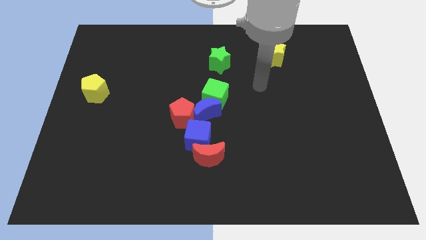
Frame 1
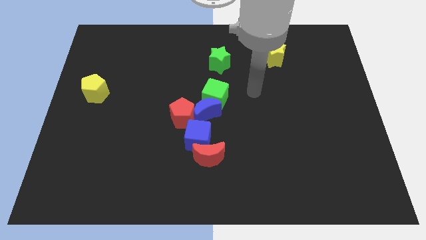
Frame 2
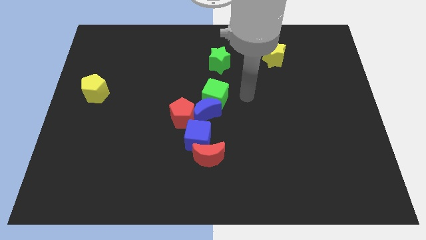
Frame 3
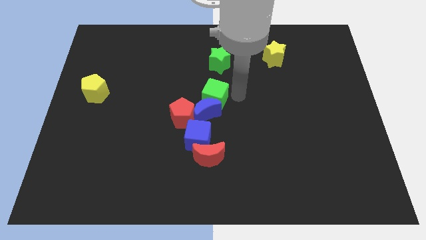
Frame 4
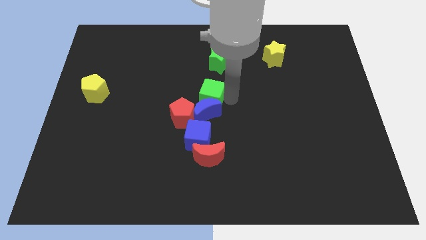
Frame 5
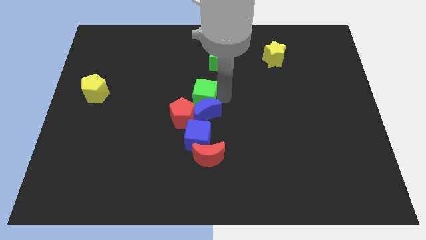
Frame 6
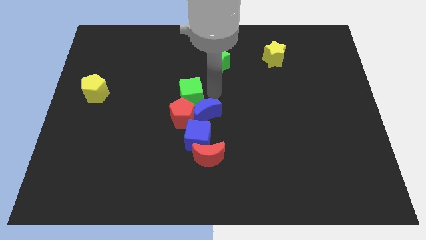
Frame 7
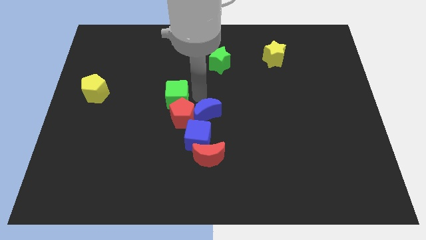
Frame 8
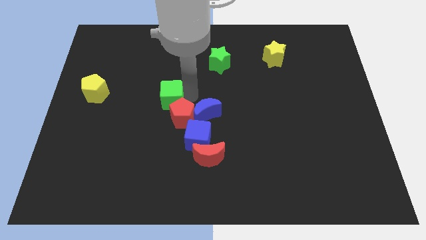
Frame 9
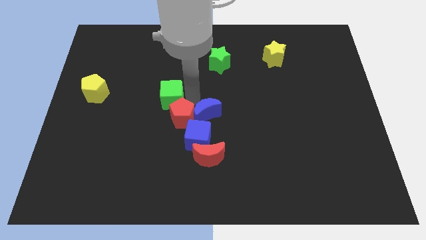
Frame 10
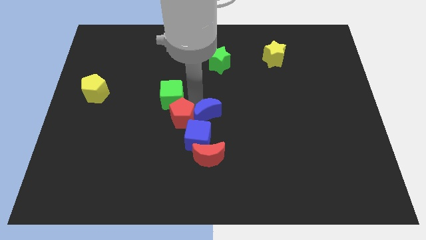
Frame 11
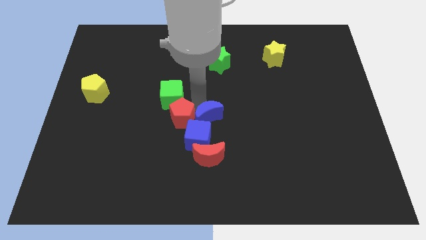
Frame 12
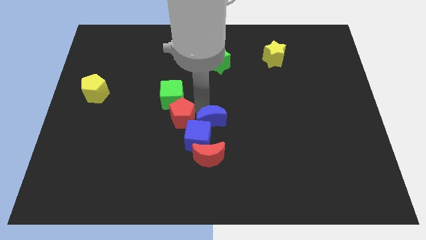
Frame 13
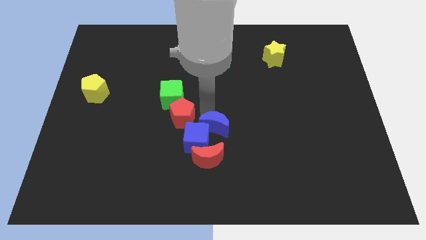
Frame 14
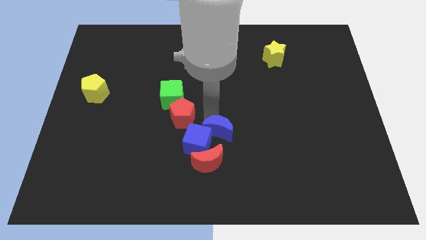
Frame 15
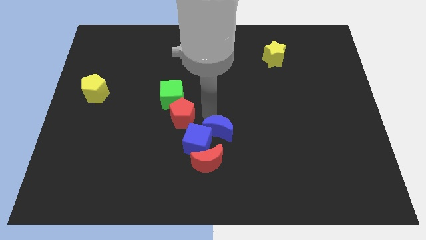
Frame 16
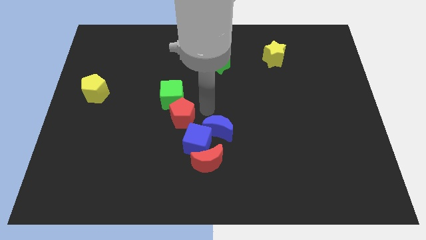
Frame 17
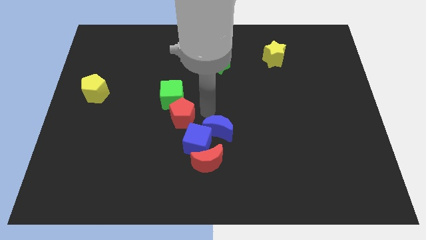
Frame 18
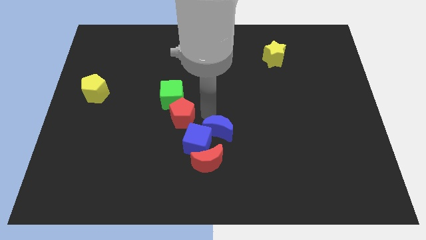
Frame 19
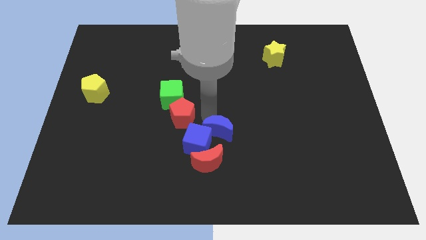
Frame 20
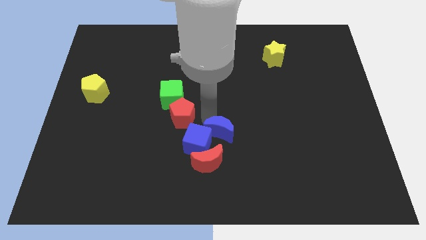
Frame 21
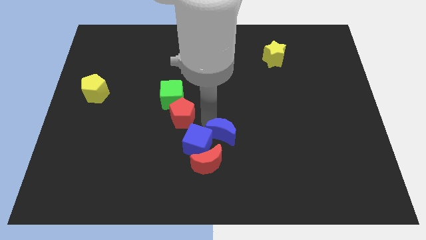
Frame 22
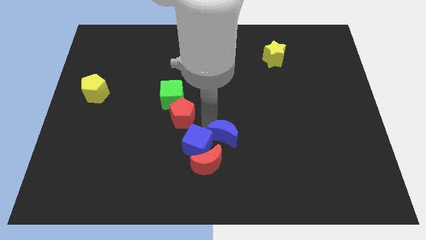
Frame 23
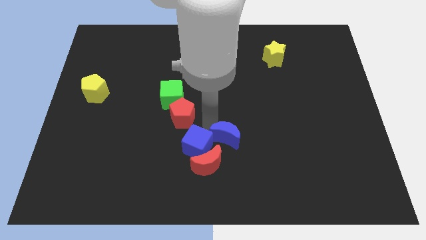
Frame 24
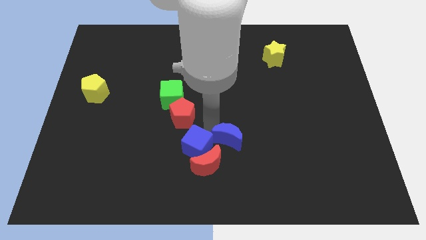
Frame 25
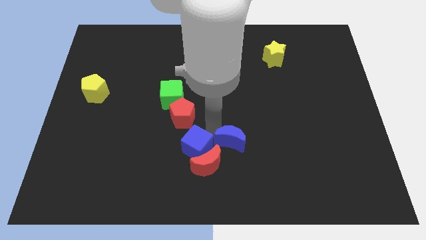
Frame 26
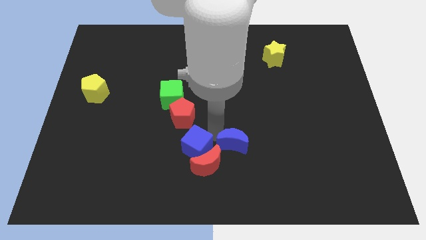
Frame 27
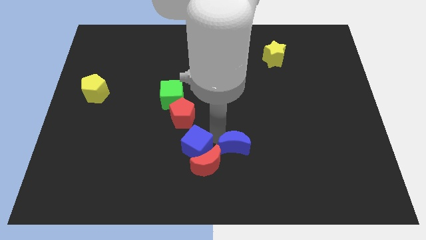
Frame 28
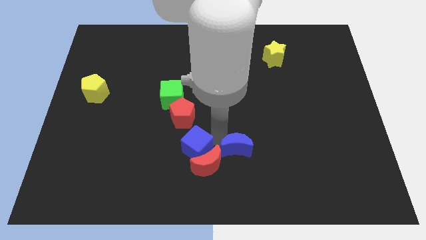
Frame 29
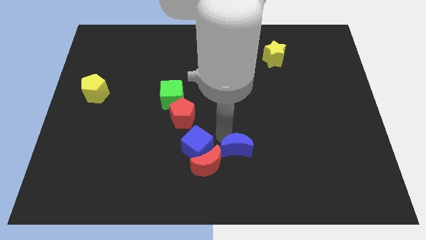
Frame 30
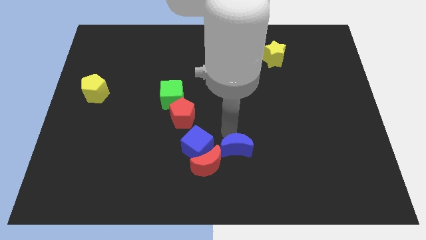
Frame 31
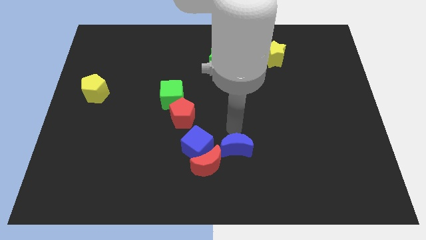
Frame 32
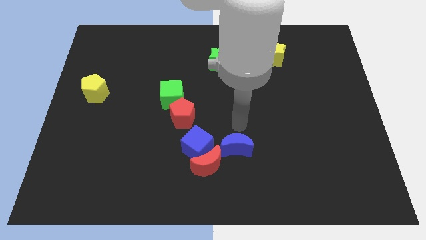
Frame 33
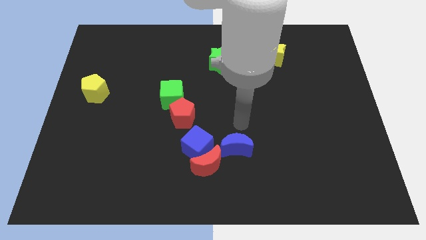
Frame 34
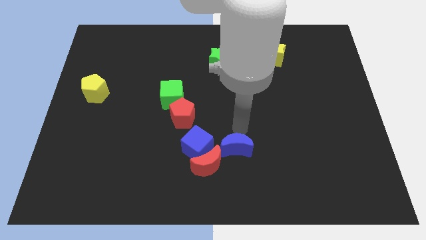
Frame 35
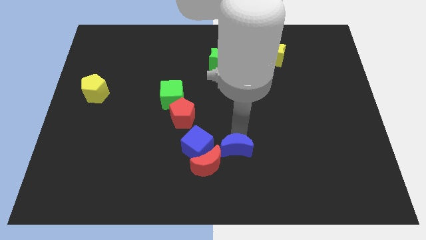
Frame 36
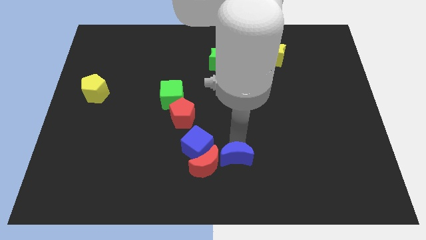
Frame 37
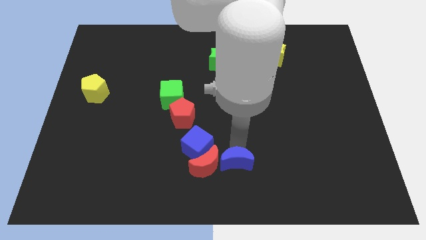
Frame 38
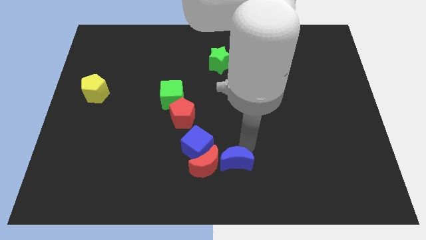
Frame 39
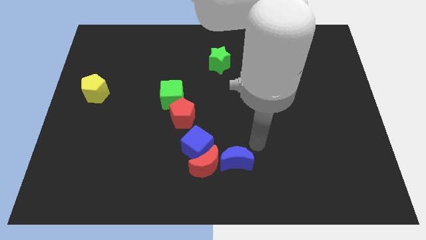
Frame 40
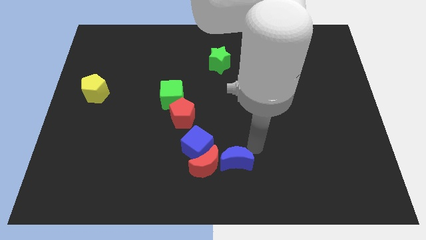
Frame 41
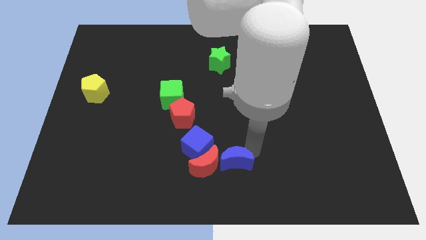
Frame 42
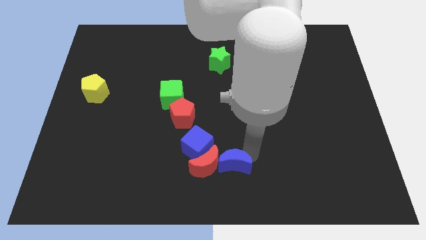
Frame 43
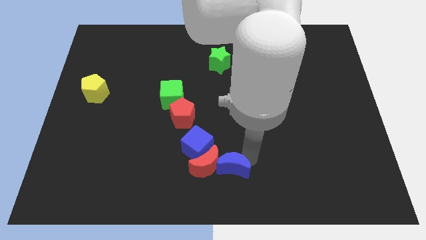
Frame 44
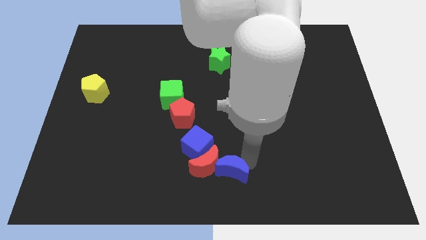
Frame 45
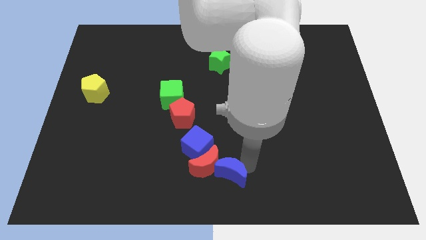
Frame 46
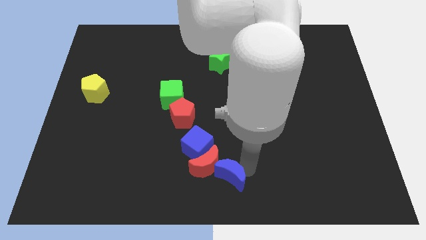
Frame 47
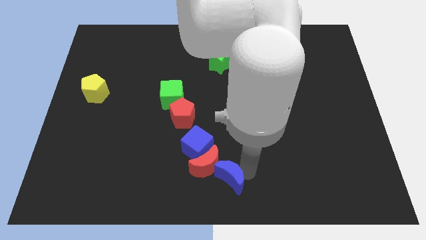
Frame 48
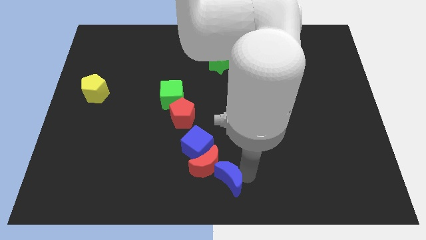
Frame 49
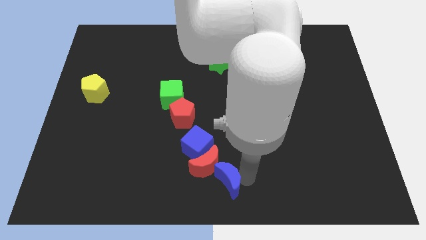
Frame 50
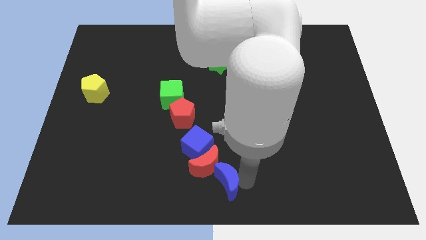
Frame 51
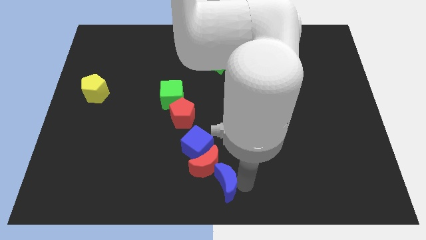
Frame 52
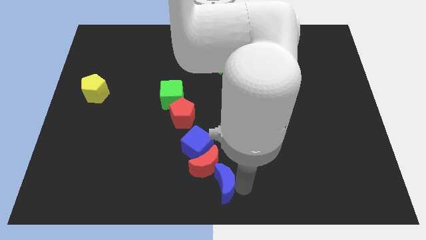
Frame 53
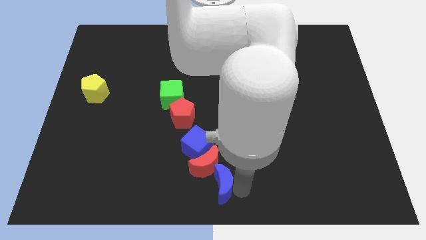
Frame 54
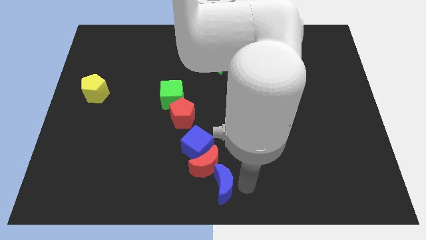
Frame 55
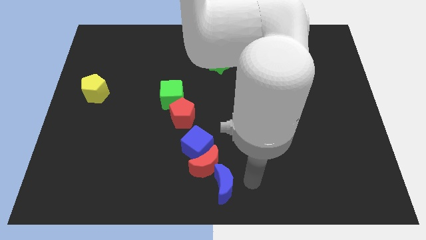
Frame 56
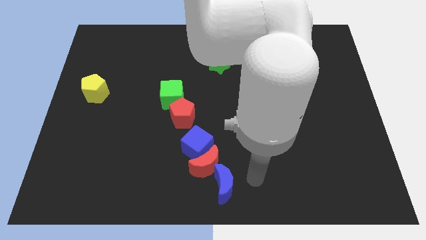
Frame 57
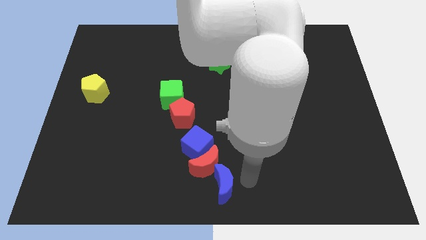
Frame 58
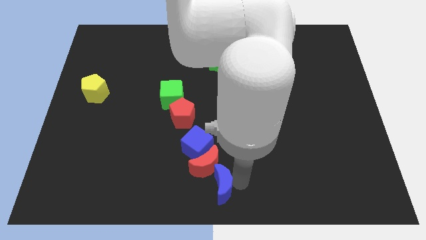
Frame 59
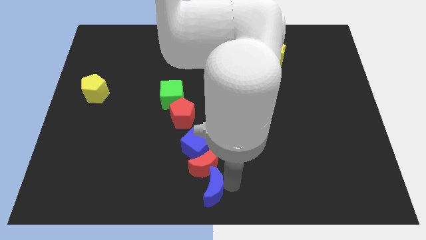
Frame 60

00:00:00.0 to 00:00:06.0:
slide the blue moon below the blue cube

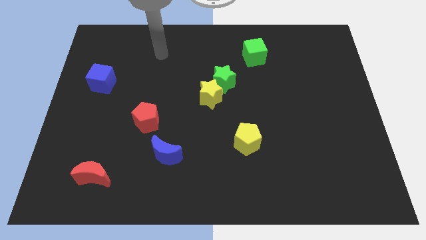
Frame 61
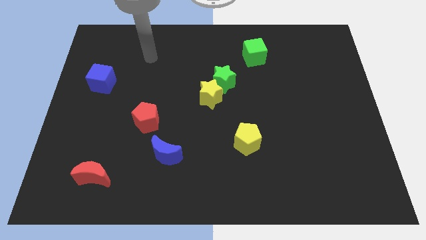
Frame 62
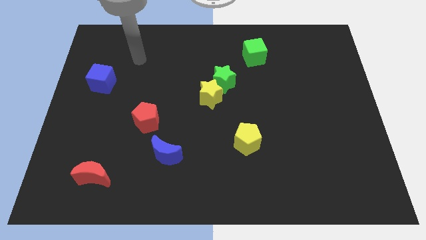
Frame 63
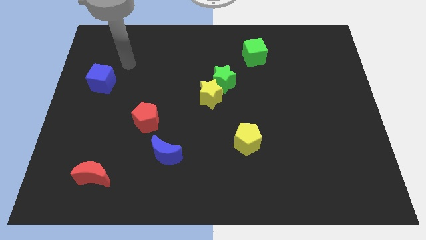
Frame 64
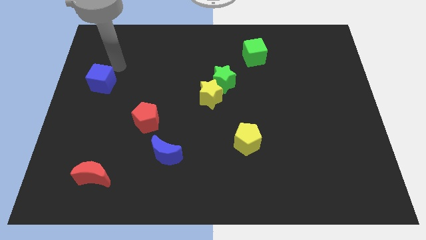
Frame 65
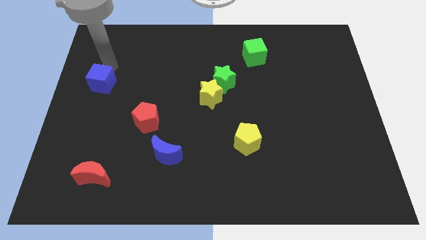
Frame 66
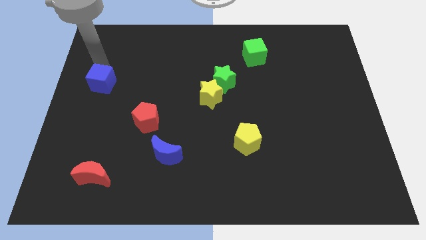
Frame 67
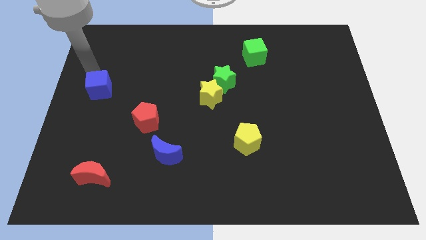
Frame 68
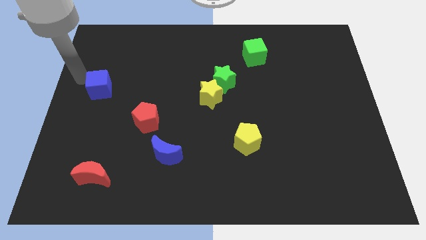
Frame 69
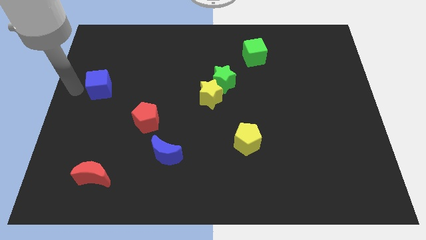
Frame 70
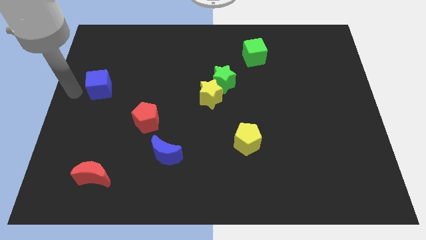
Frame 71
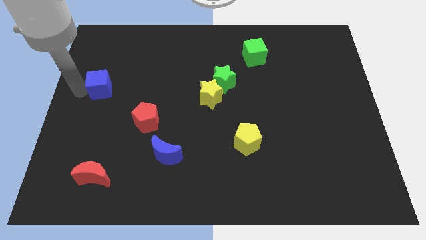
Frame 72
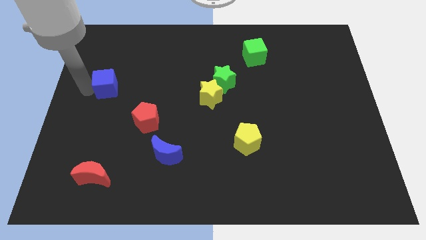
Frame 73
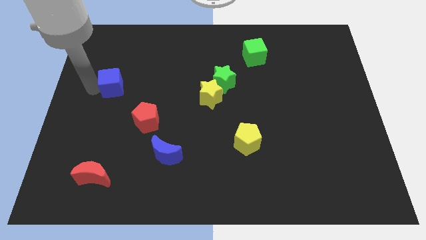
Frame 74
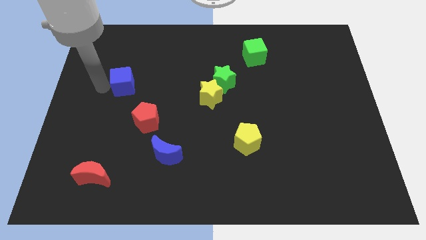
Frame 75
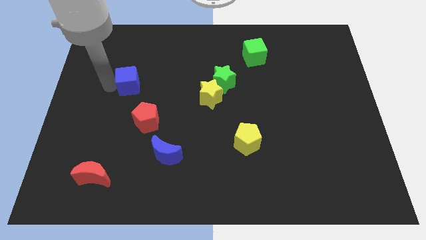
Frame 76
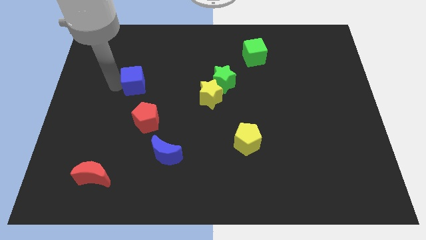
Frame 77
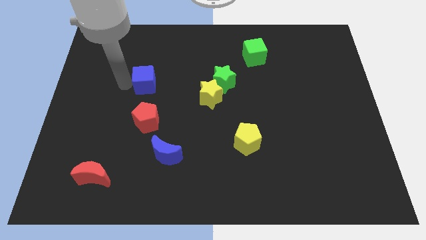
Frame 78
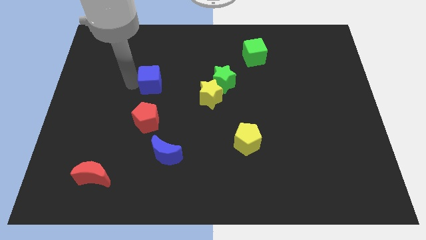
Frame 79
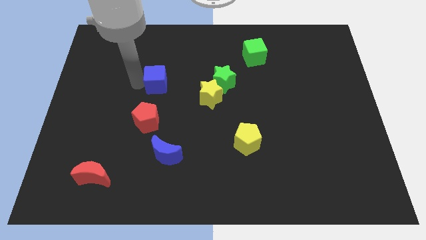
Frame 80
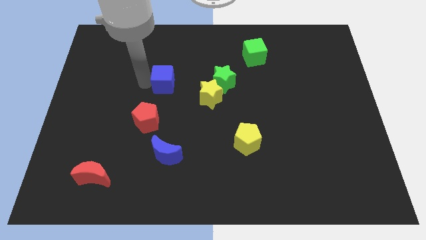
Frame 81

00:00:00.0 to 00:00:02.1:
move the blue cube to the left side of the green star
